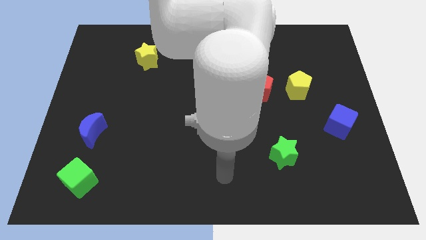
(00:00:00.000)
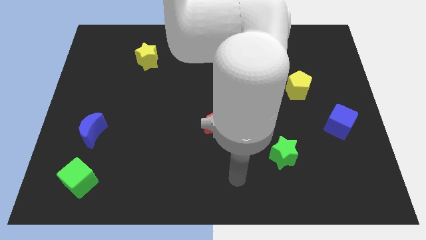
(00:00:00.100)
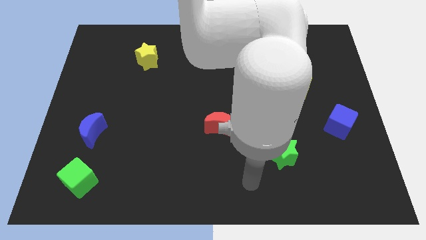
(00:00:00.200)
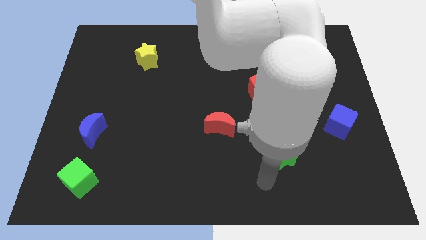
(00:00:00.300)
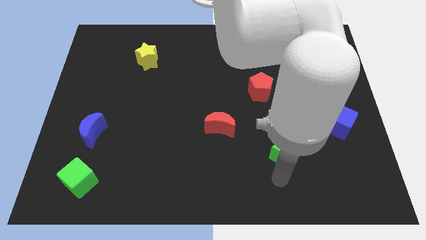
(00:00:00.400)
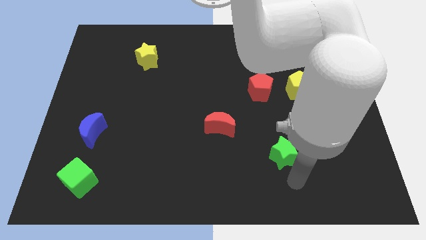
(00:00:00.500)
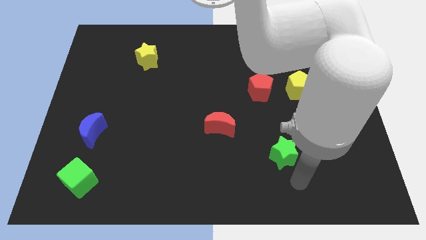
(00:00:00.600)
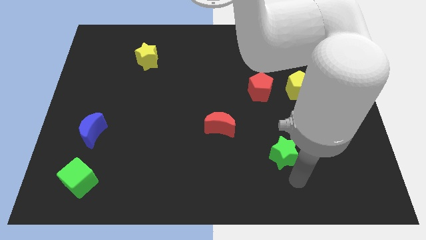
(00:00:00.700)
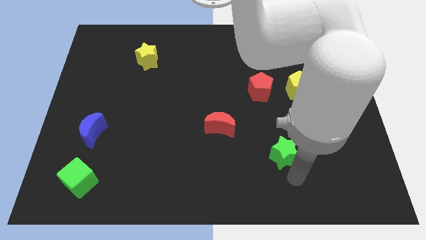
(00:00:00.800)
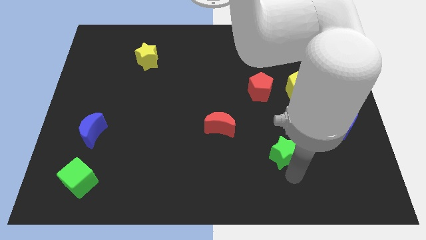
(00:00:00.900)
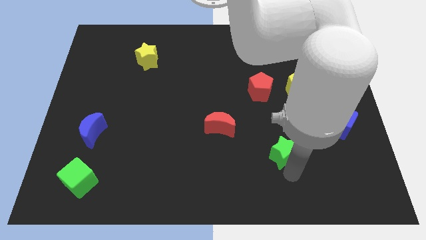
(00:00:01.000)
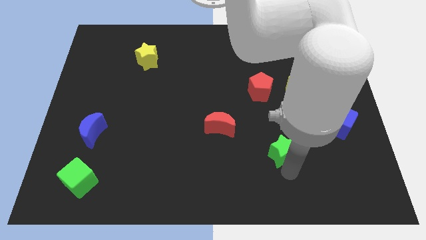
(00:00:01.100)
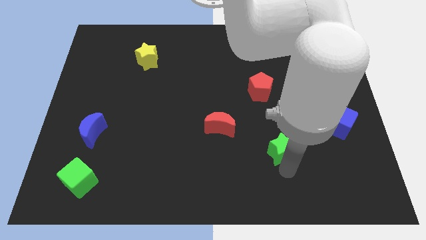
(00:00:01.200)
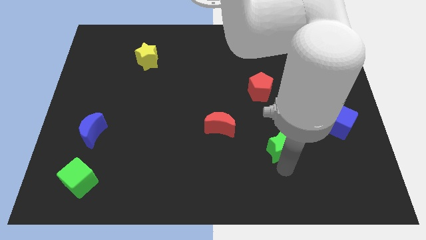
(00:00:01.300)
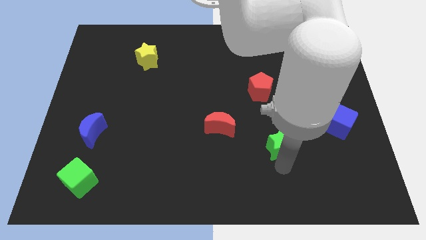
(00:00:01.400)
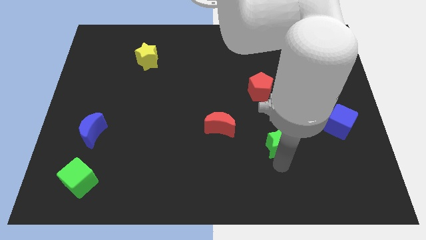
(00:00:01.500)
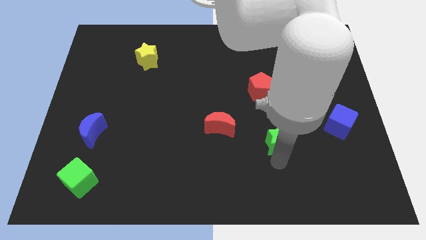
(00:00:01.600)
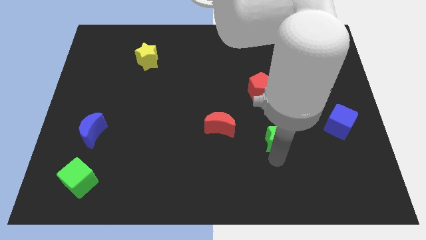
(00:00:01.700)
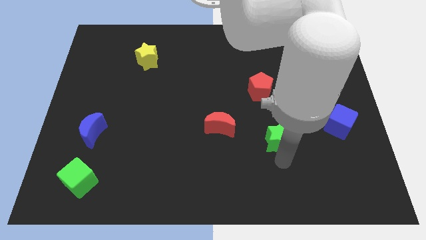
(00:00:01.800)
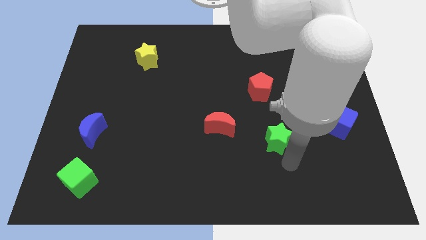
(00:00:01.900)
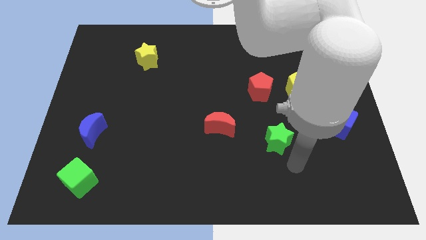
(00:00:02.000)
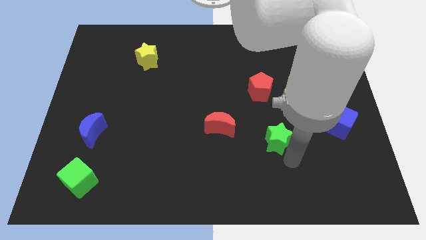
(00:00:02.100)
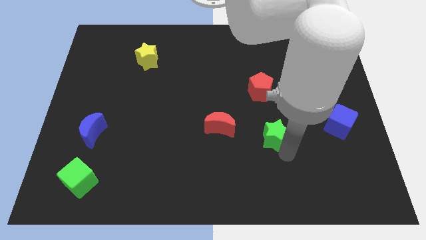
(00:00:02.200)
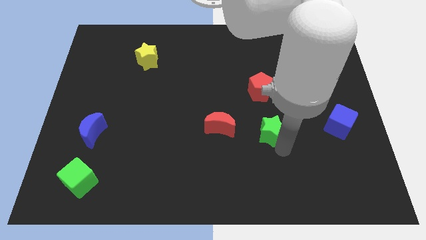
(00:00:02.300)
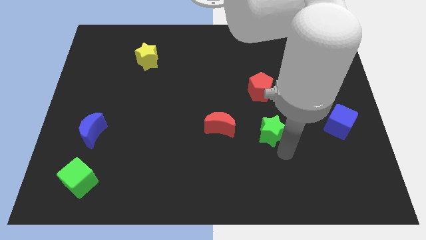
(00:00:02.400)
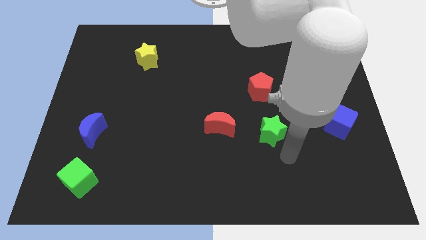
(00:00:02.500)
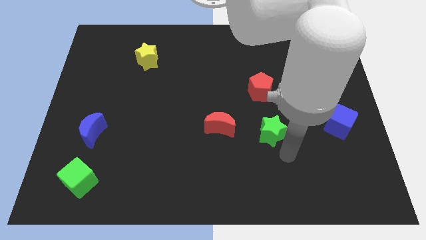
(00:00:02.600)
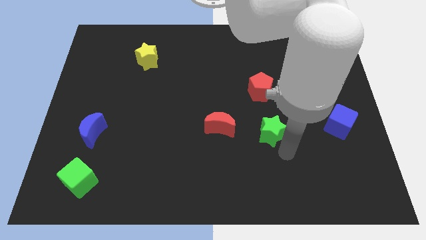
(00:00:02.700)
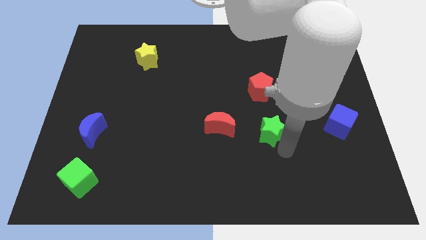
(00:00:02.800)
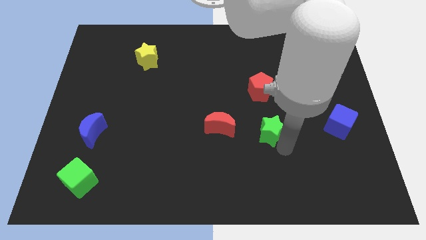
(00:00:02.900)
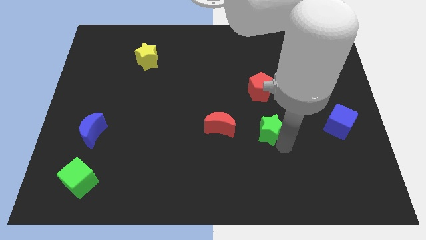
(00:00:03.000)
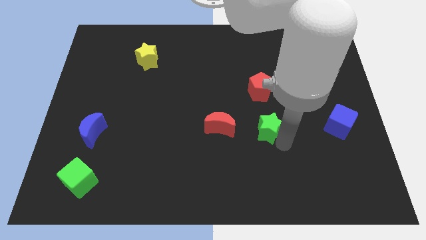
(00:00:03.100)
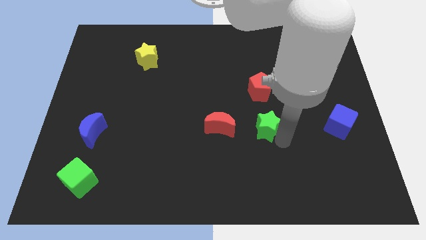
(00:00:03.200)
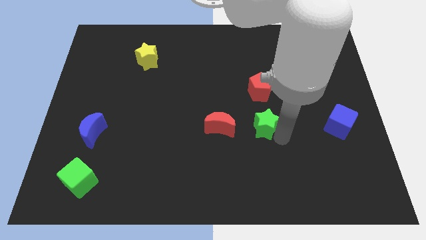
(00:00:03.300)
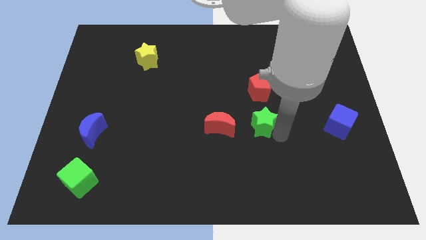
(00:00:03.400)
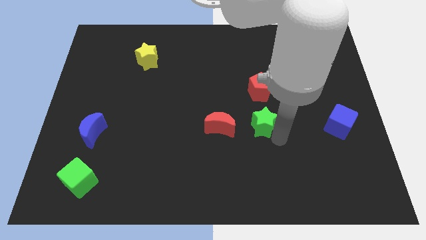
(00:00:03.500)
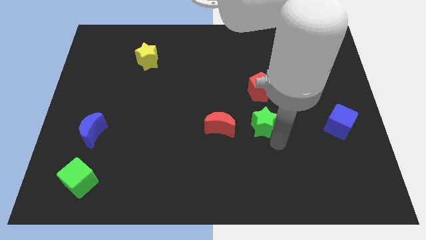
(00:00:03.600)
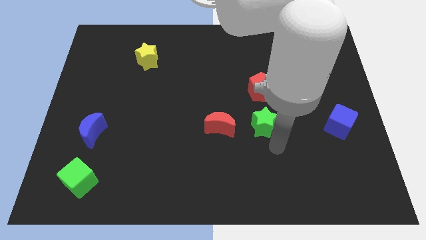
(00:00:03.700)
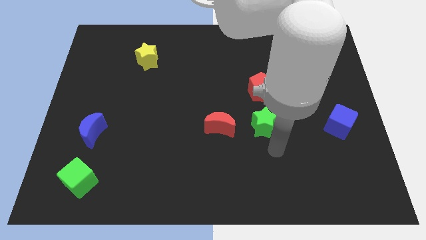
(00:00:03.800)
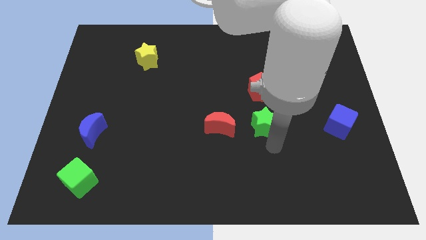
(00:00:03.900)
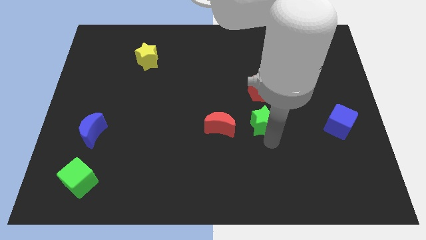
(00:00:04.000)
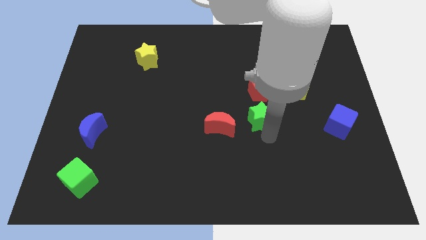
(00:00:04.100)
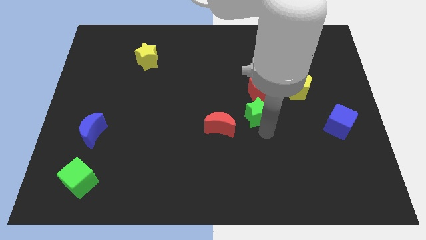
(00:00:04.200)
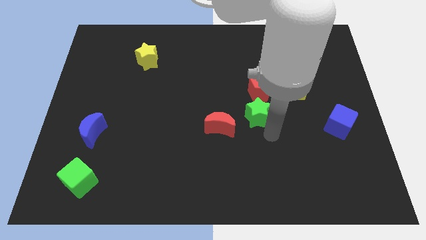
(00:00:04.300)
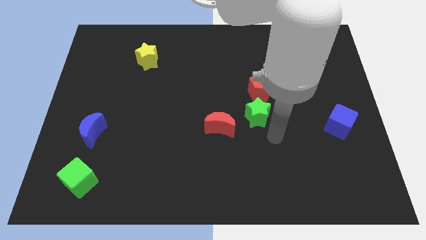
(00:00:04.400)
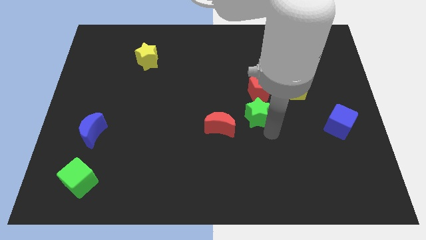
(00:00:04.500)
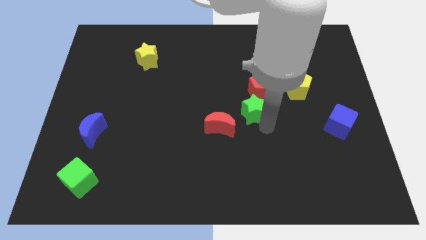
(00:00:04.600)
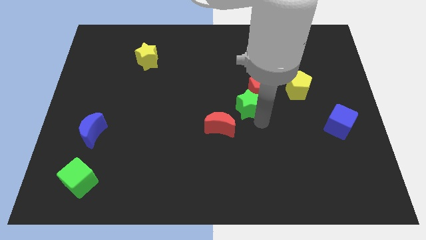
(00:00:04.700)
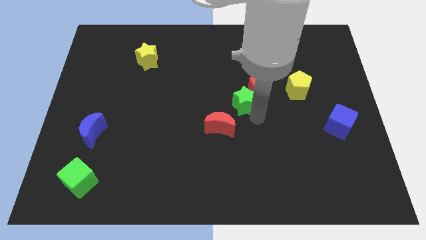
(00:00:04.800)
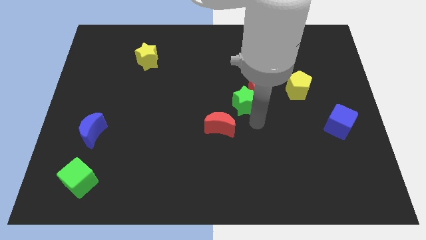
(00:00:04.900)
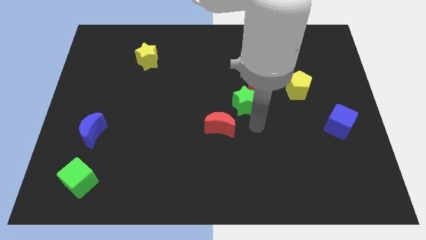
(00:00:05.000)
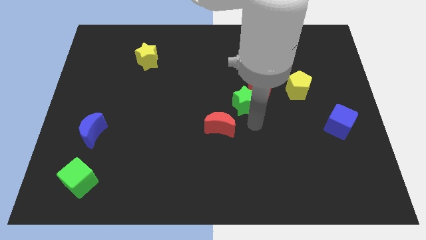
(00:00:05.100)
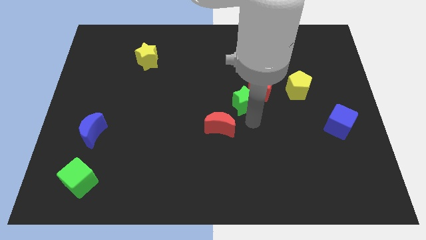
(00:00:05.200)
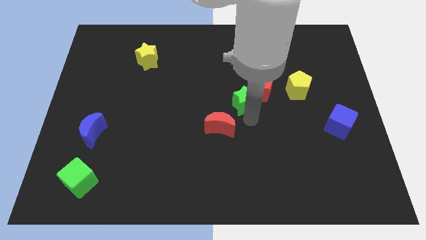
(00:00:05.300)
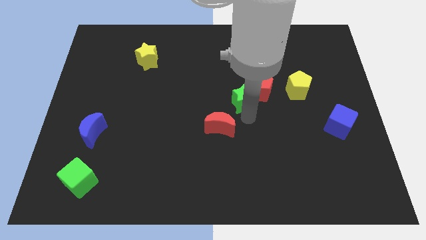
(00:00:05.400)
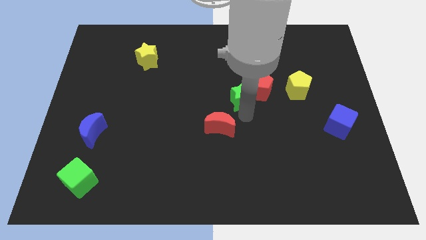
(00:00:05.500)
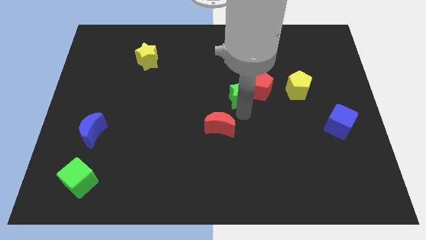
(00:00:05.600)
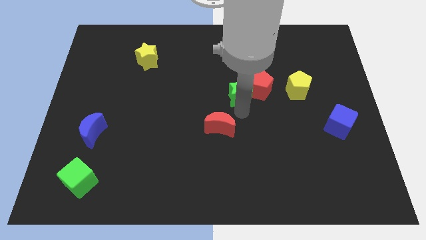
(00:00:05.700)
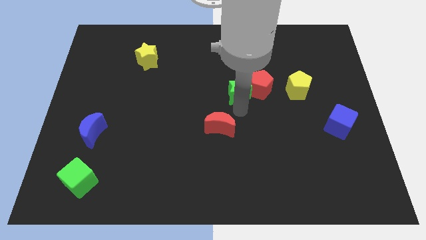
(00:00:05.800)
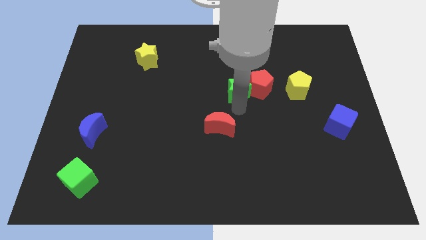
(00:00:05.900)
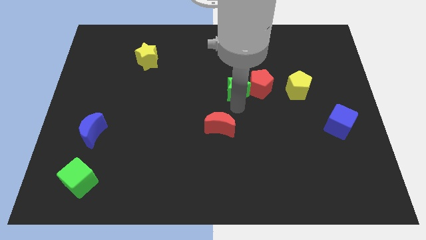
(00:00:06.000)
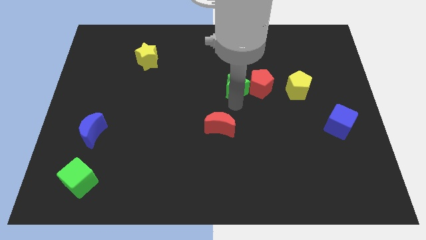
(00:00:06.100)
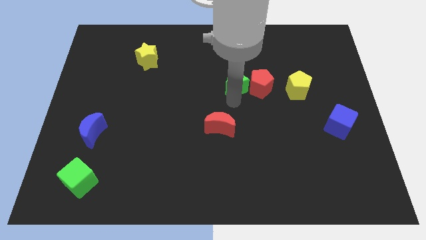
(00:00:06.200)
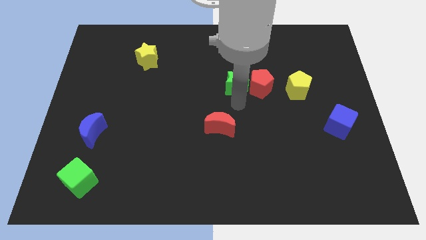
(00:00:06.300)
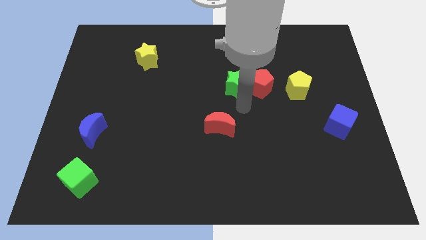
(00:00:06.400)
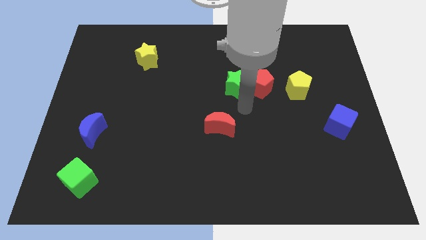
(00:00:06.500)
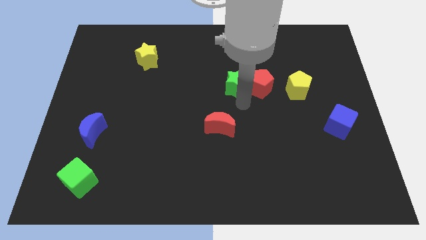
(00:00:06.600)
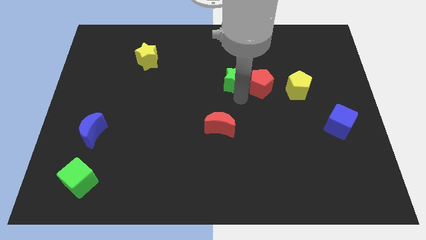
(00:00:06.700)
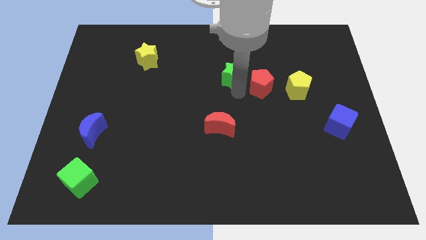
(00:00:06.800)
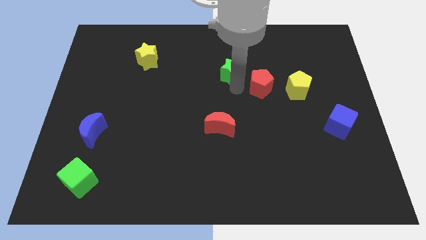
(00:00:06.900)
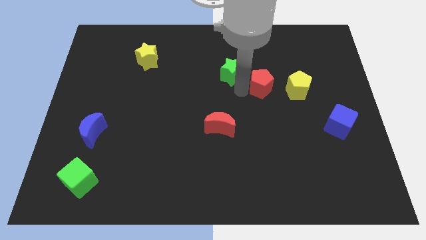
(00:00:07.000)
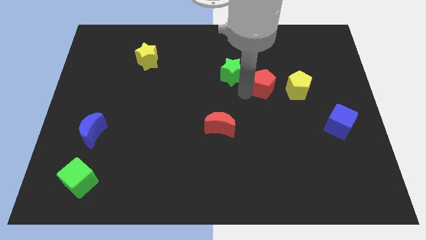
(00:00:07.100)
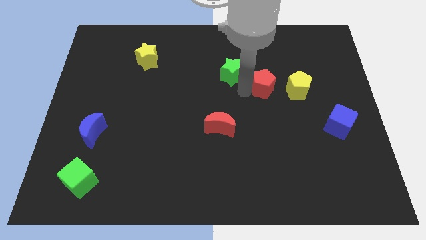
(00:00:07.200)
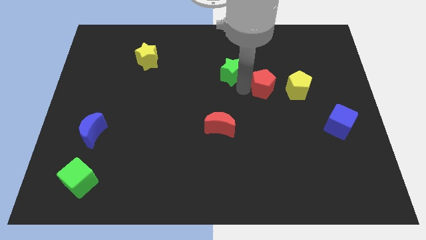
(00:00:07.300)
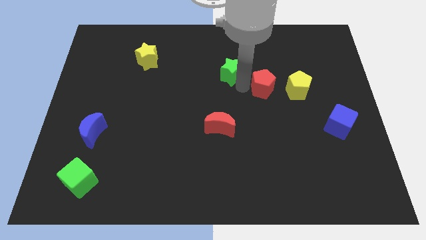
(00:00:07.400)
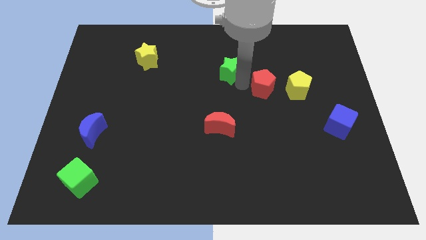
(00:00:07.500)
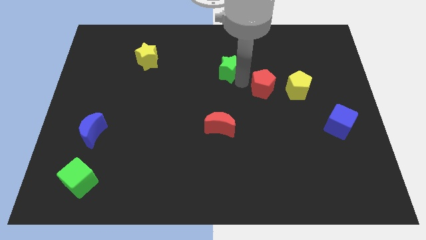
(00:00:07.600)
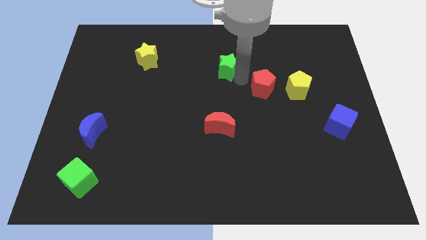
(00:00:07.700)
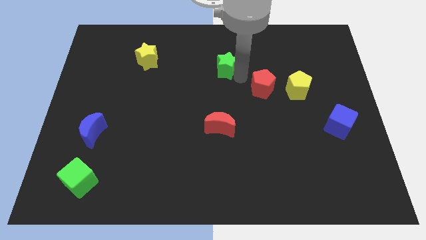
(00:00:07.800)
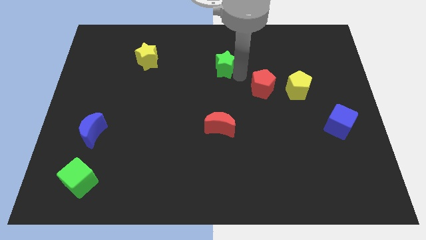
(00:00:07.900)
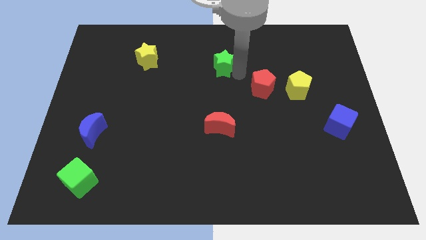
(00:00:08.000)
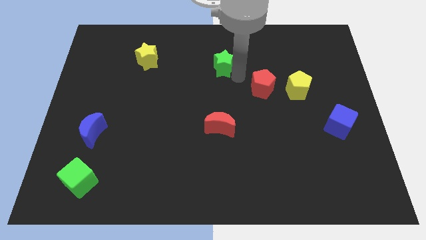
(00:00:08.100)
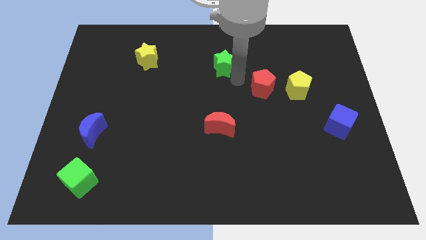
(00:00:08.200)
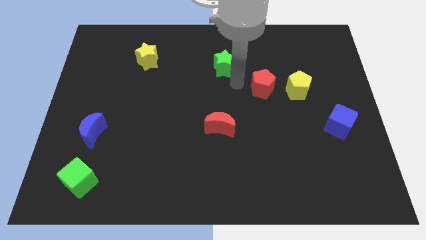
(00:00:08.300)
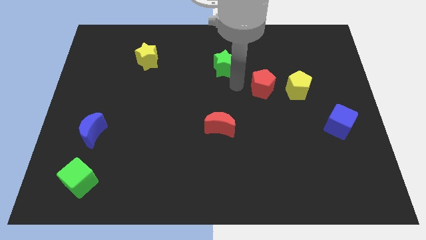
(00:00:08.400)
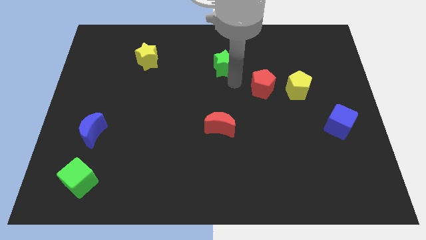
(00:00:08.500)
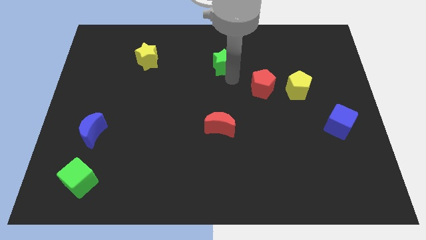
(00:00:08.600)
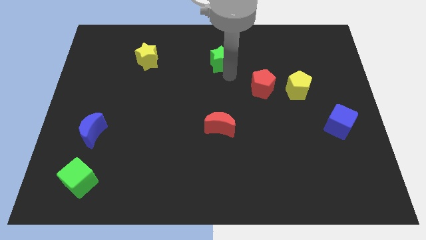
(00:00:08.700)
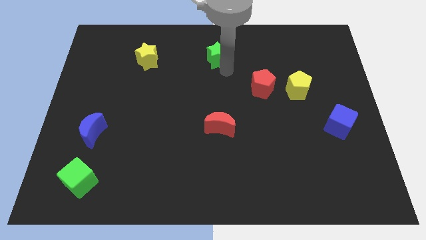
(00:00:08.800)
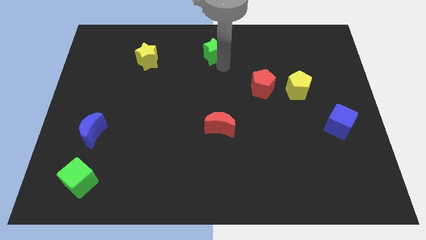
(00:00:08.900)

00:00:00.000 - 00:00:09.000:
push the green star to the towards your base
